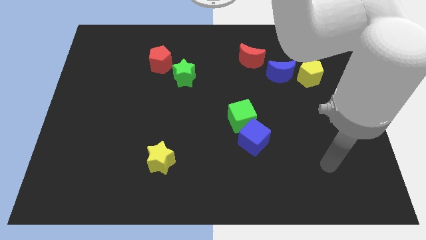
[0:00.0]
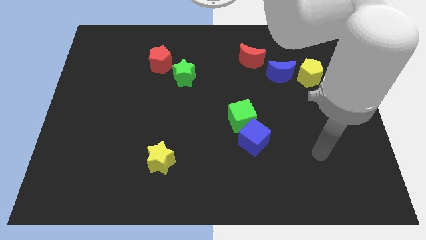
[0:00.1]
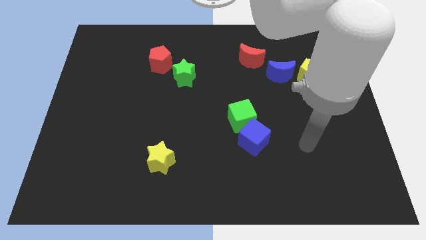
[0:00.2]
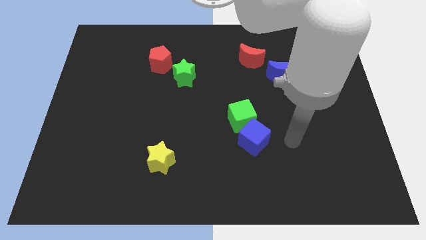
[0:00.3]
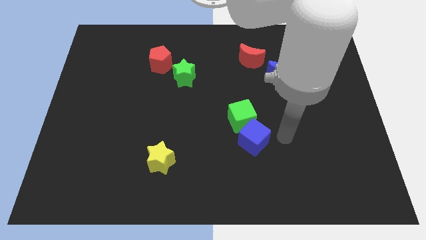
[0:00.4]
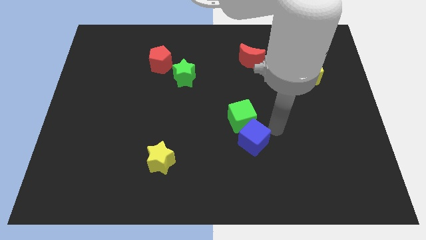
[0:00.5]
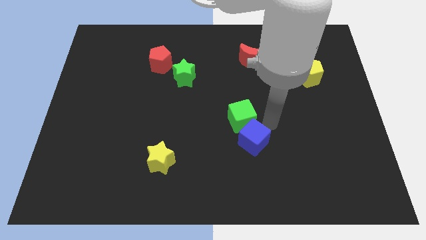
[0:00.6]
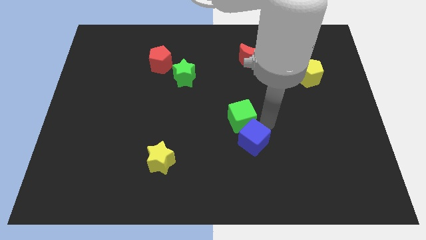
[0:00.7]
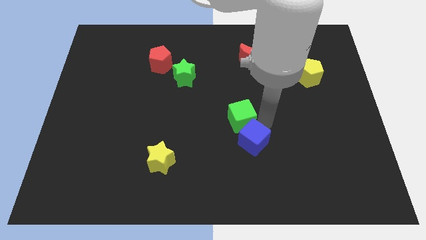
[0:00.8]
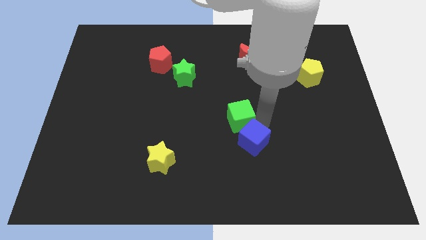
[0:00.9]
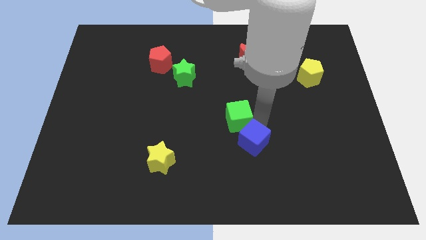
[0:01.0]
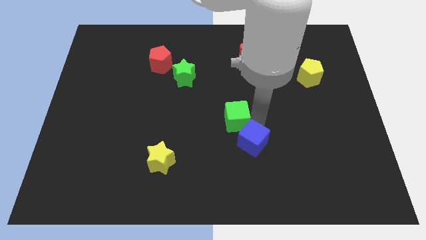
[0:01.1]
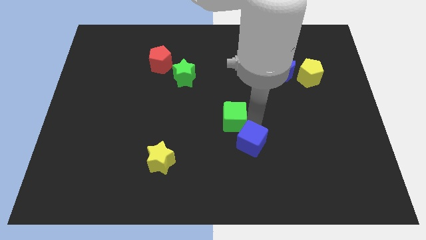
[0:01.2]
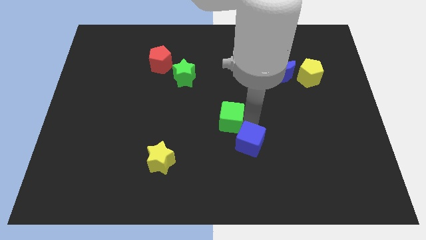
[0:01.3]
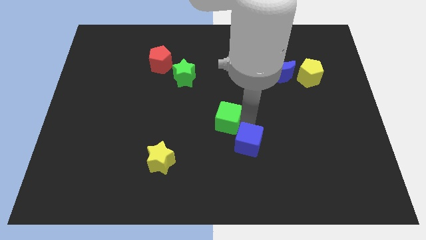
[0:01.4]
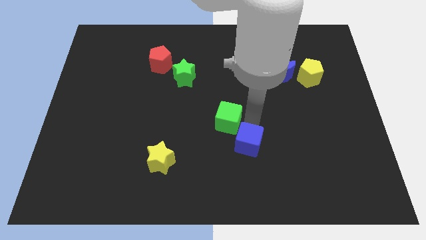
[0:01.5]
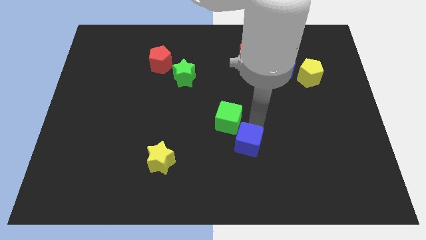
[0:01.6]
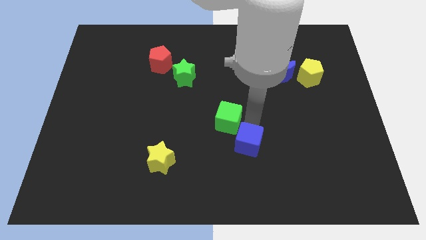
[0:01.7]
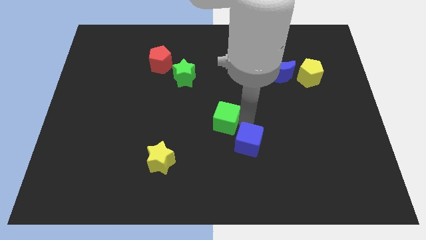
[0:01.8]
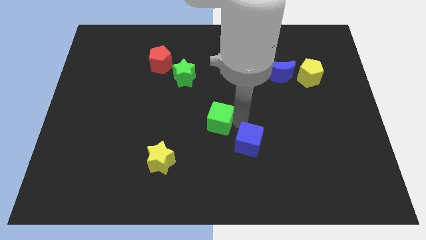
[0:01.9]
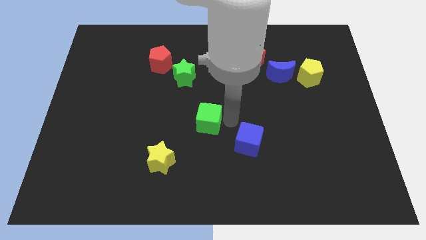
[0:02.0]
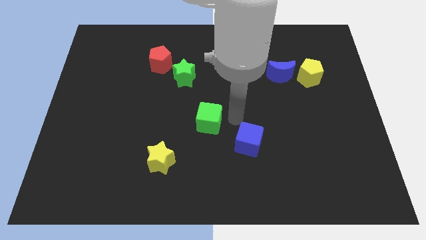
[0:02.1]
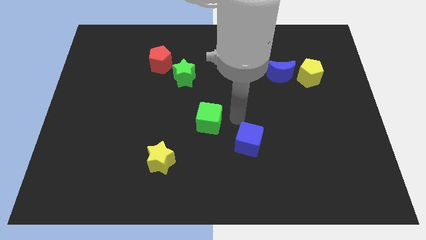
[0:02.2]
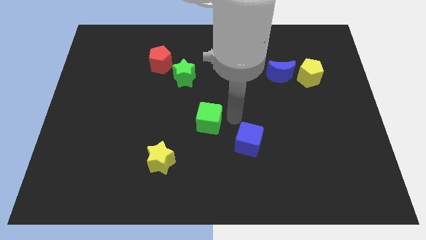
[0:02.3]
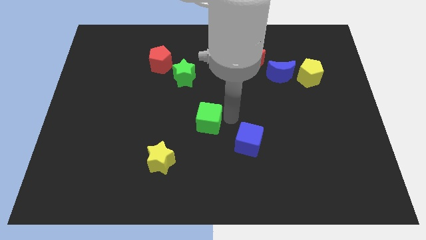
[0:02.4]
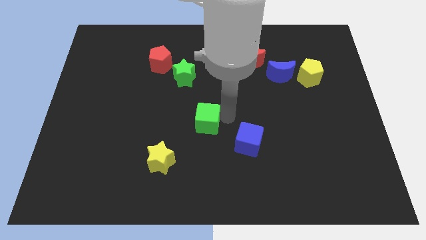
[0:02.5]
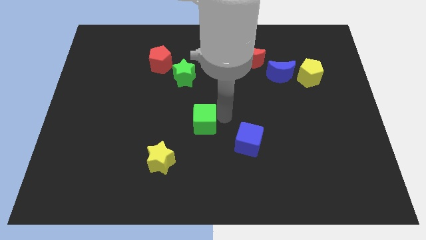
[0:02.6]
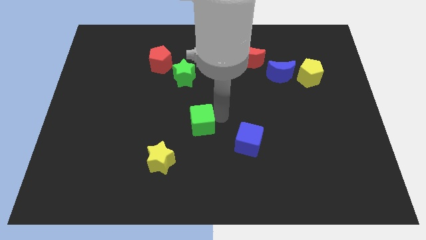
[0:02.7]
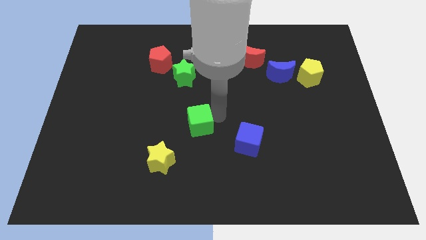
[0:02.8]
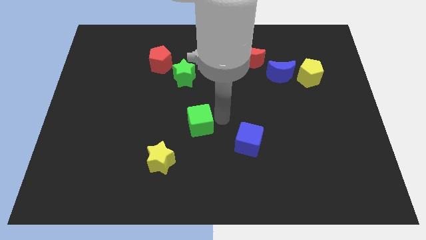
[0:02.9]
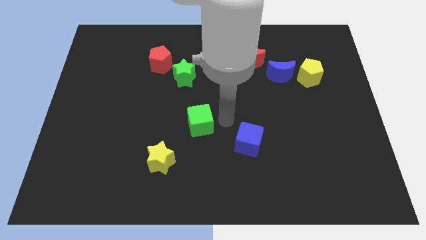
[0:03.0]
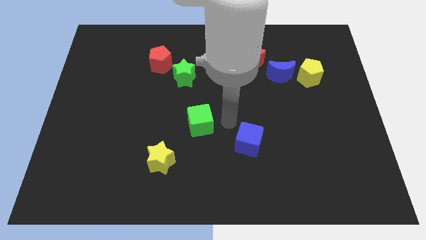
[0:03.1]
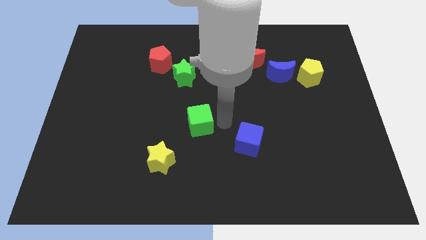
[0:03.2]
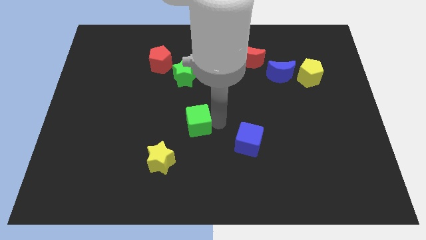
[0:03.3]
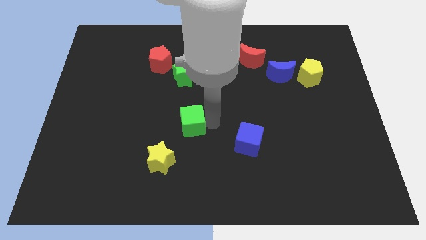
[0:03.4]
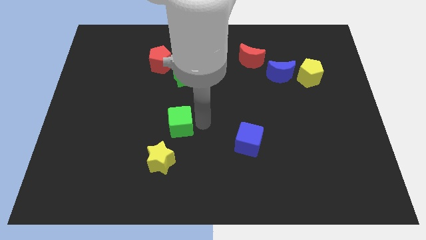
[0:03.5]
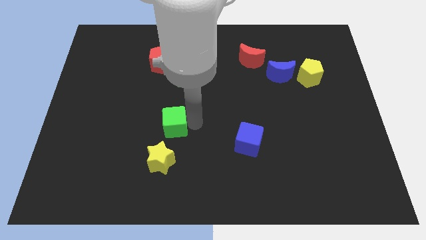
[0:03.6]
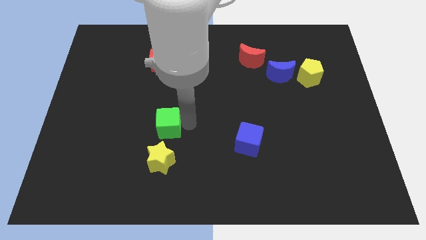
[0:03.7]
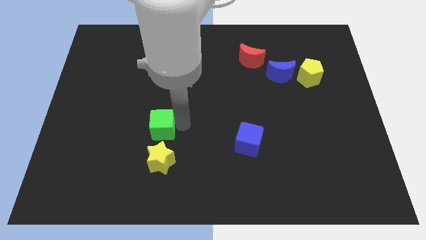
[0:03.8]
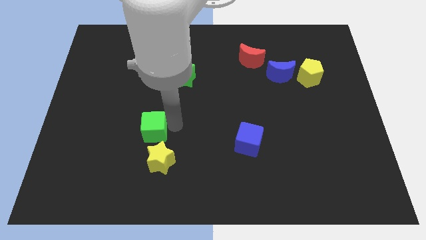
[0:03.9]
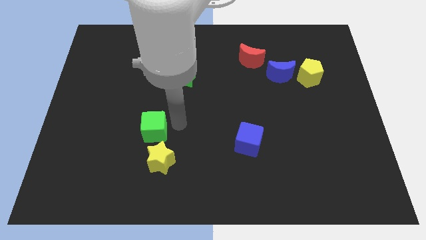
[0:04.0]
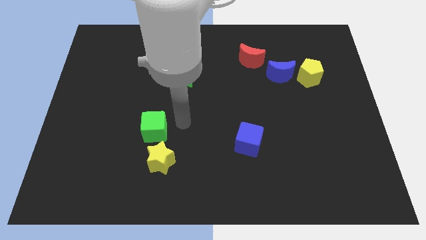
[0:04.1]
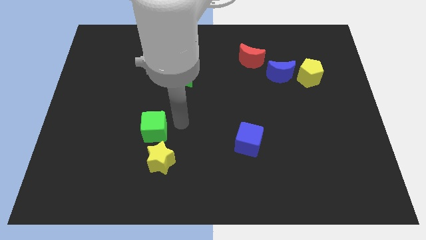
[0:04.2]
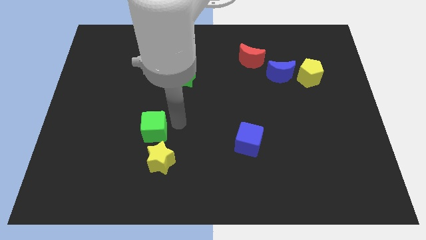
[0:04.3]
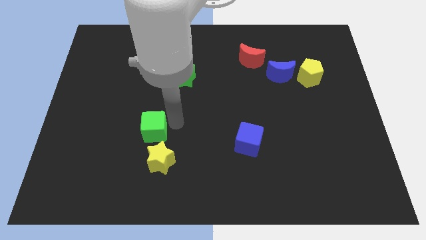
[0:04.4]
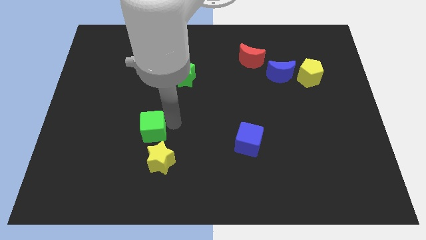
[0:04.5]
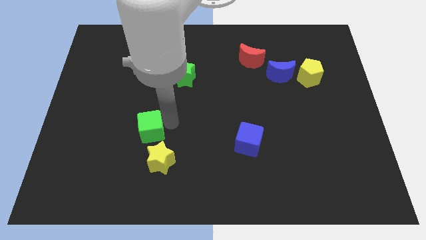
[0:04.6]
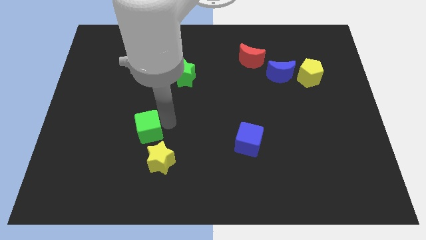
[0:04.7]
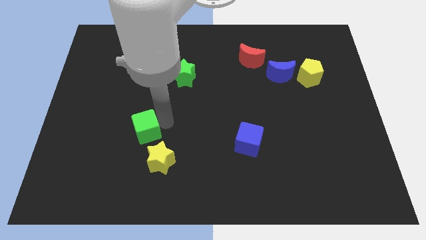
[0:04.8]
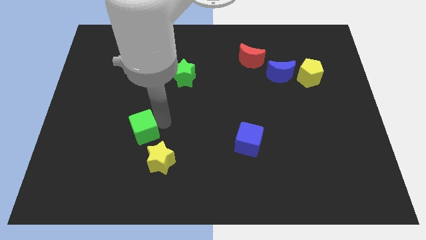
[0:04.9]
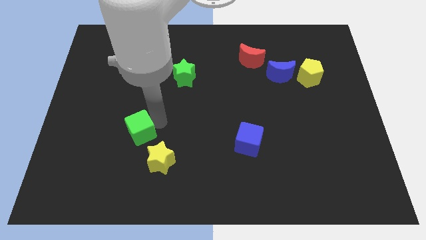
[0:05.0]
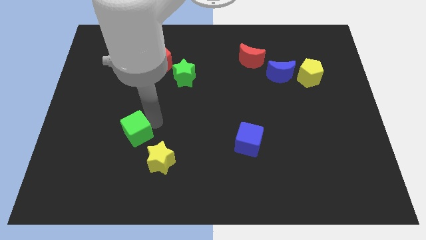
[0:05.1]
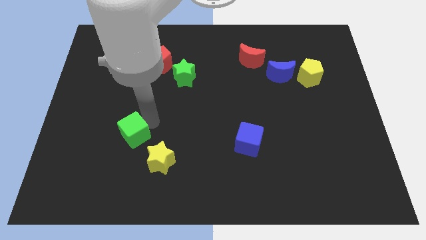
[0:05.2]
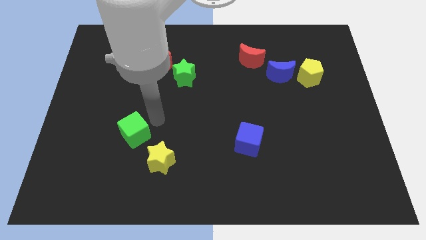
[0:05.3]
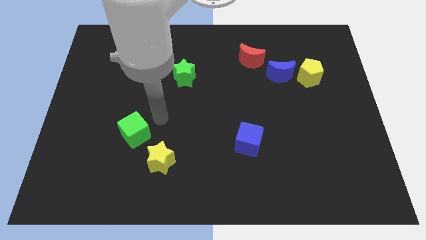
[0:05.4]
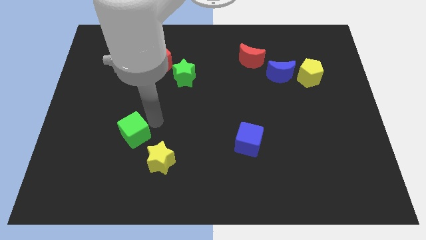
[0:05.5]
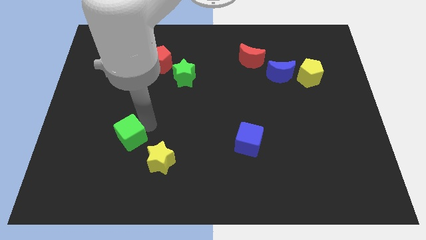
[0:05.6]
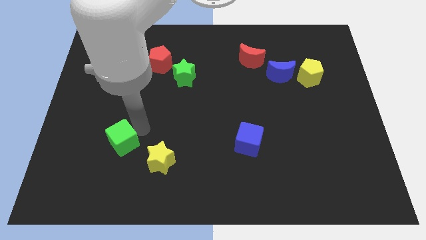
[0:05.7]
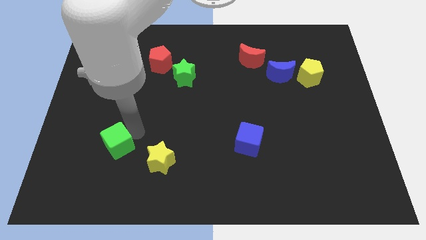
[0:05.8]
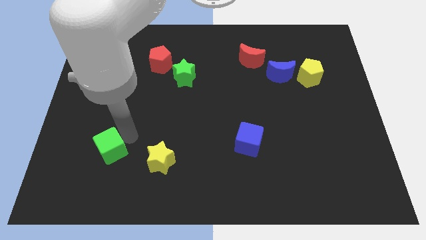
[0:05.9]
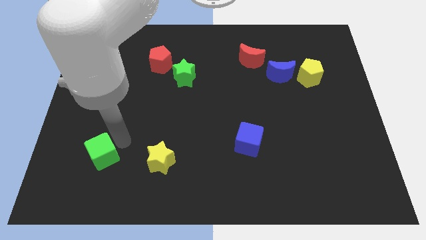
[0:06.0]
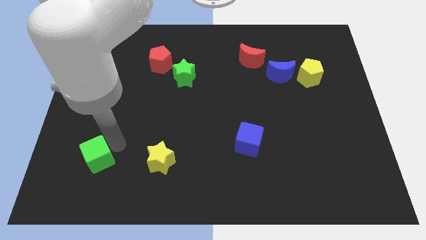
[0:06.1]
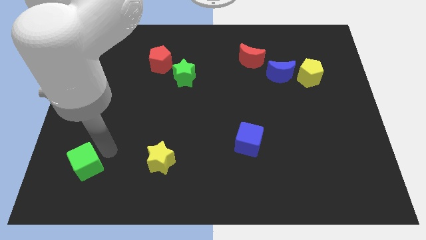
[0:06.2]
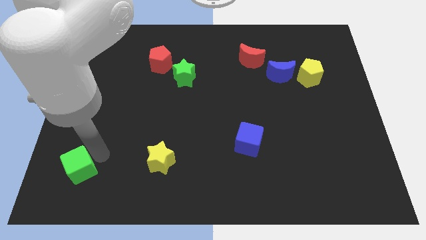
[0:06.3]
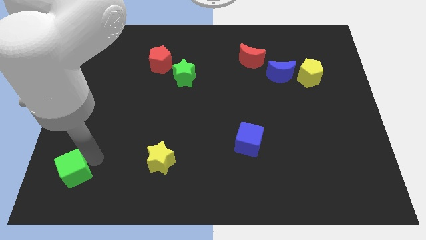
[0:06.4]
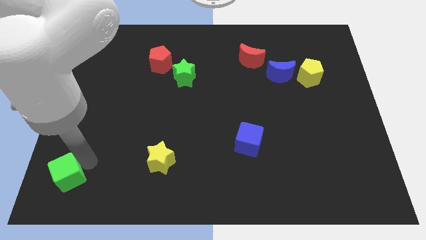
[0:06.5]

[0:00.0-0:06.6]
push the green cube to the bottom left of the board
